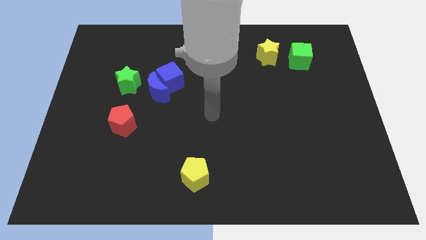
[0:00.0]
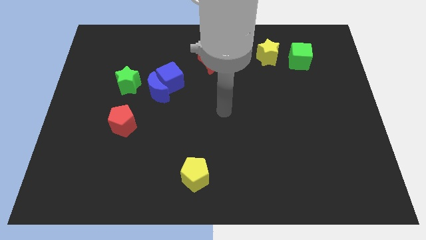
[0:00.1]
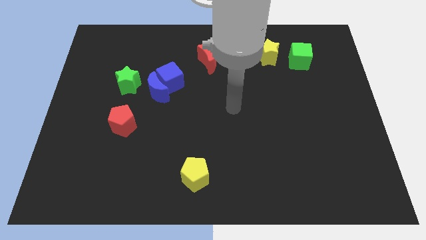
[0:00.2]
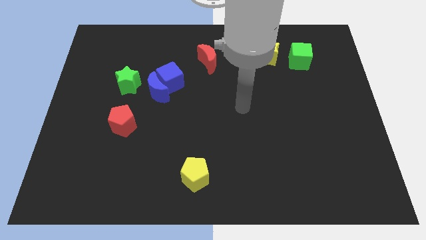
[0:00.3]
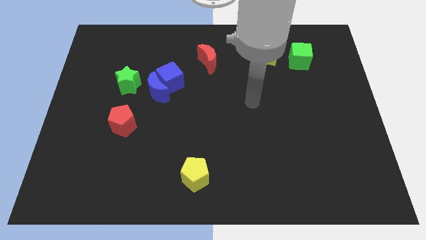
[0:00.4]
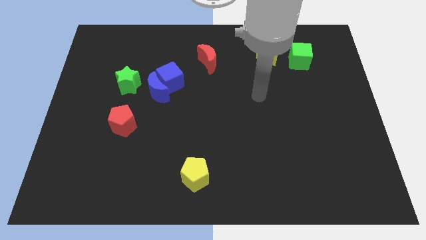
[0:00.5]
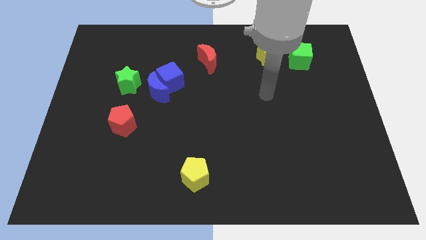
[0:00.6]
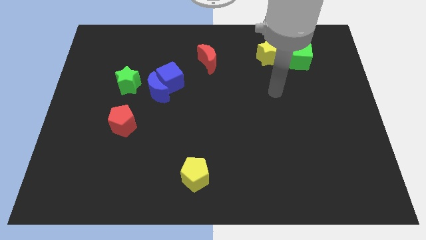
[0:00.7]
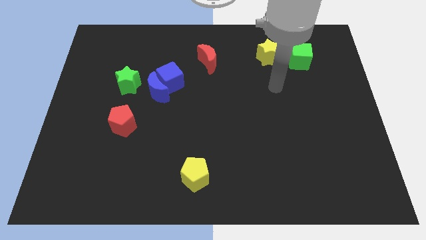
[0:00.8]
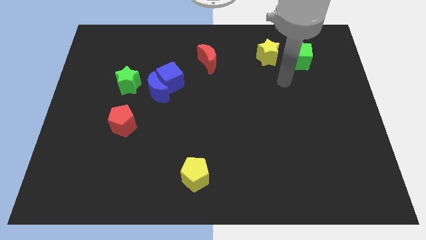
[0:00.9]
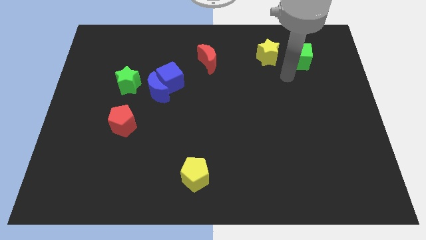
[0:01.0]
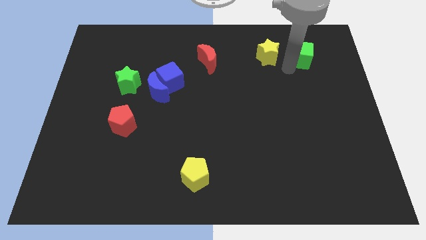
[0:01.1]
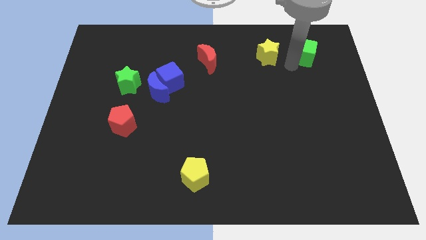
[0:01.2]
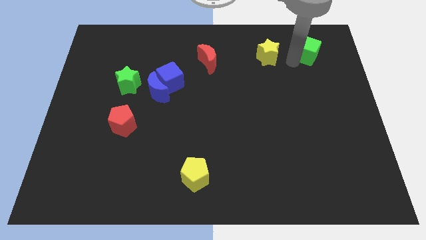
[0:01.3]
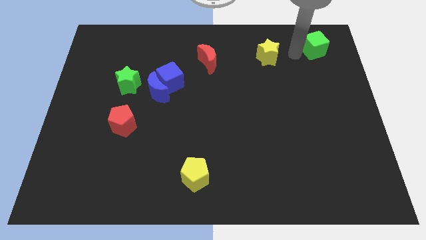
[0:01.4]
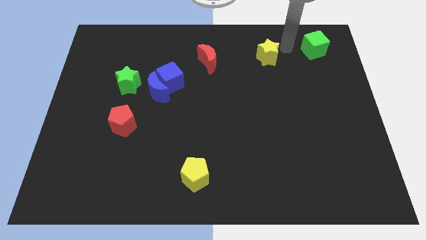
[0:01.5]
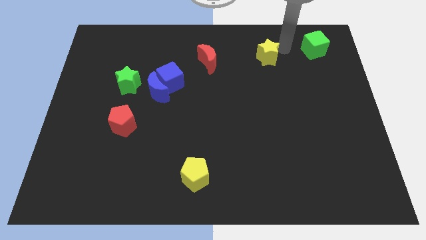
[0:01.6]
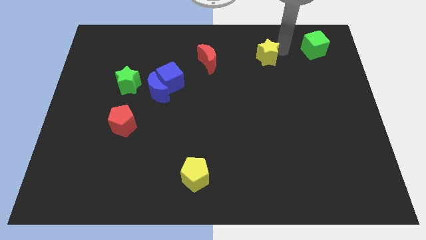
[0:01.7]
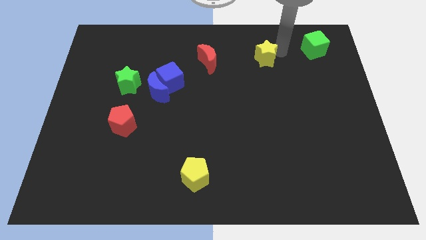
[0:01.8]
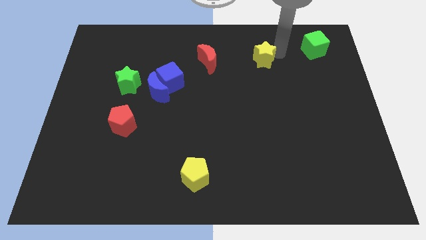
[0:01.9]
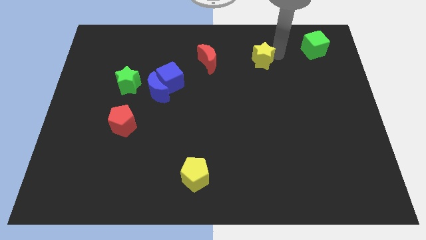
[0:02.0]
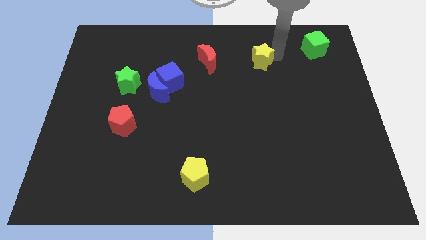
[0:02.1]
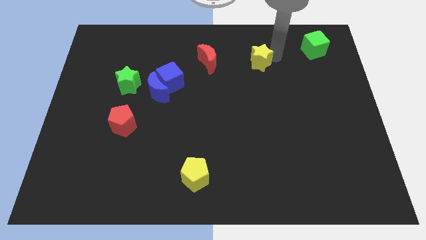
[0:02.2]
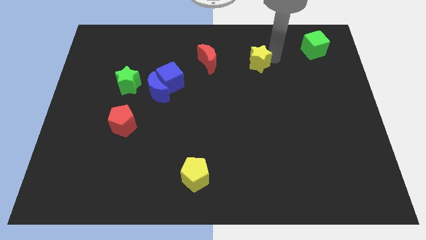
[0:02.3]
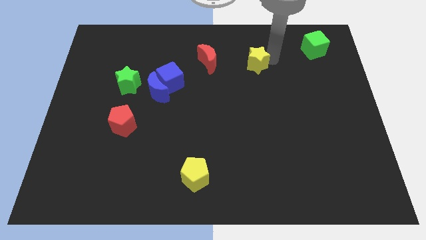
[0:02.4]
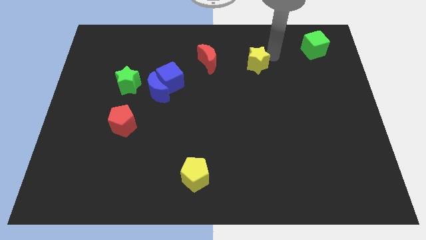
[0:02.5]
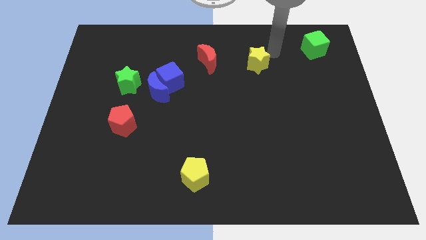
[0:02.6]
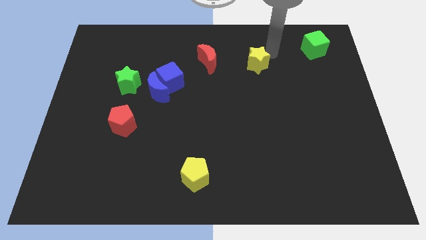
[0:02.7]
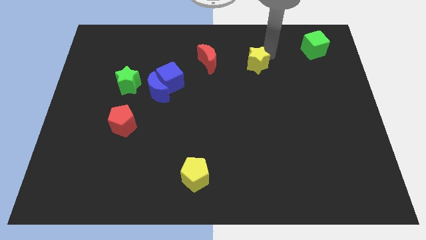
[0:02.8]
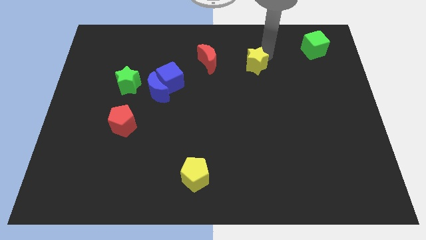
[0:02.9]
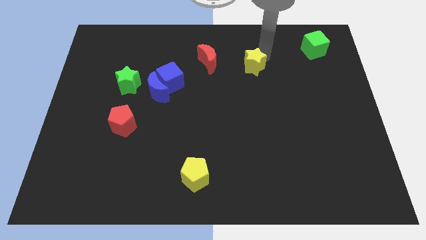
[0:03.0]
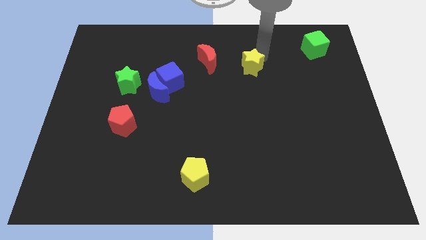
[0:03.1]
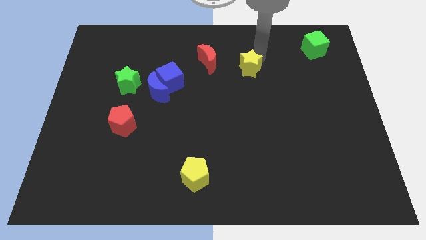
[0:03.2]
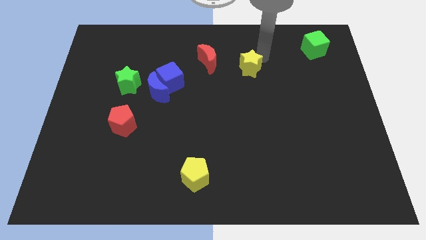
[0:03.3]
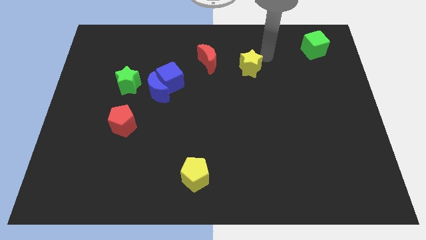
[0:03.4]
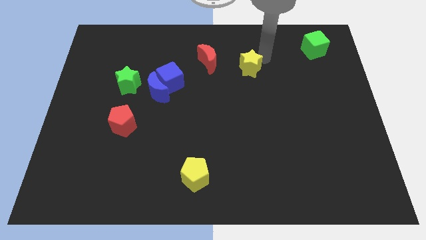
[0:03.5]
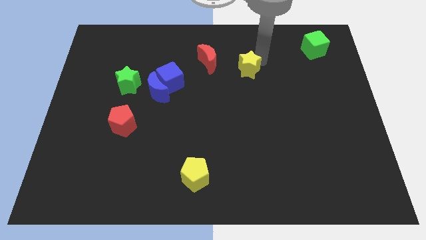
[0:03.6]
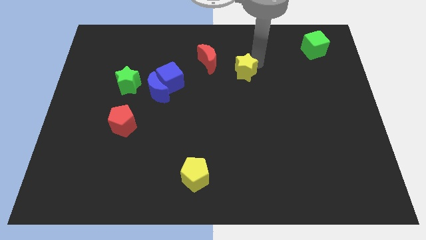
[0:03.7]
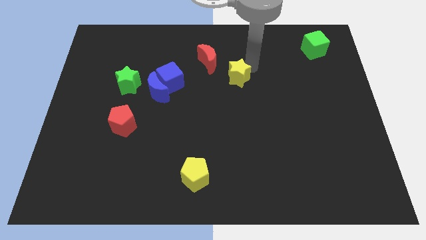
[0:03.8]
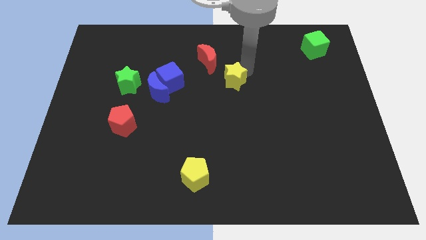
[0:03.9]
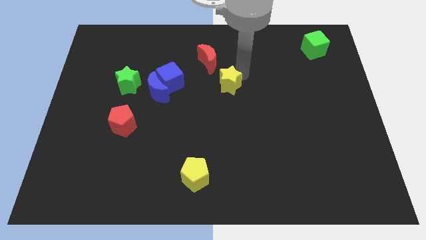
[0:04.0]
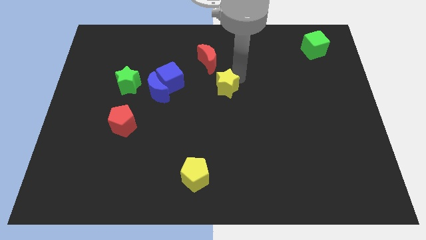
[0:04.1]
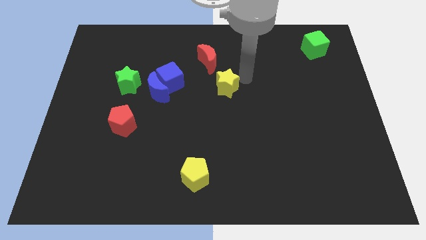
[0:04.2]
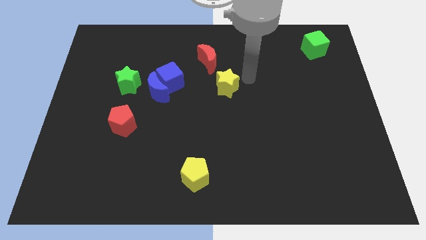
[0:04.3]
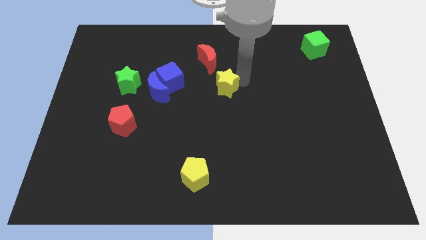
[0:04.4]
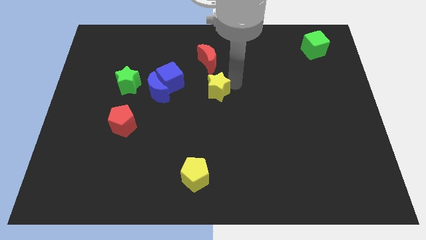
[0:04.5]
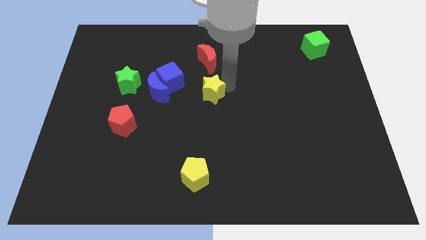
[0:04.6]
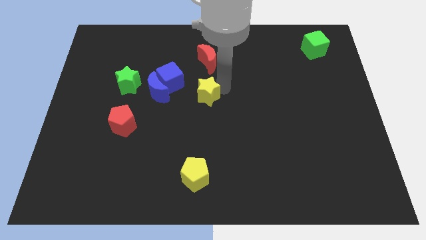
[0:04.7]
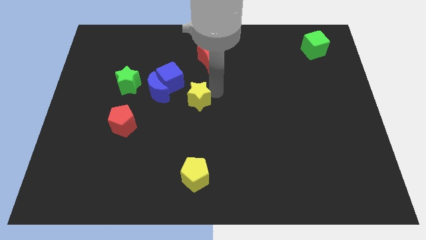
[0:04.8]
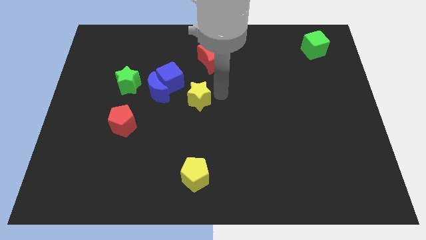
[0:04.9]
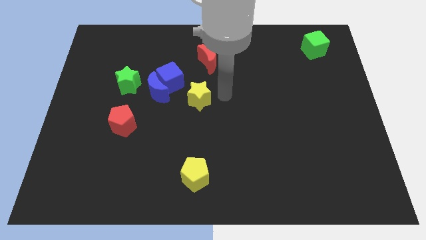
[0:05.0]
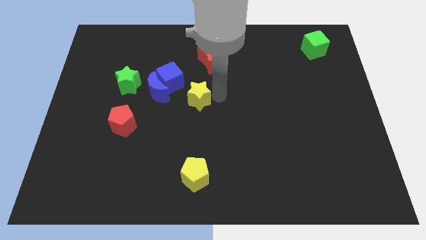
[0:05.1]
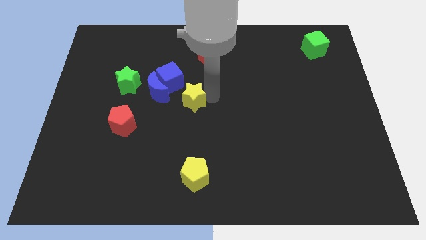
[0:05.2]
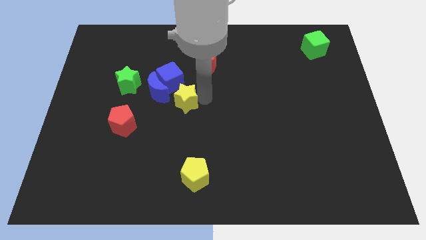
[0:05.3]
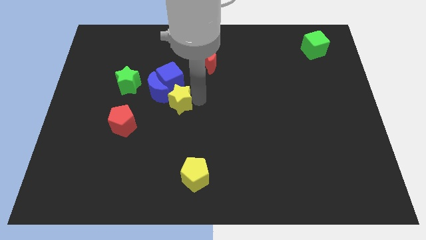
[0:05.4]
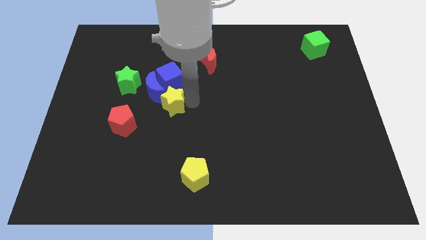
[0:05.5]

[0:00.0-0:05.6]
put the yellow star close to the blue moon

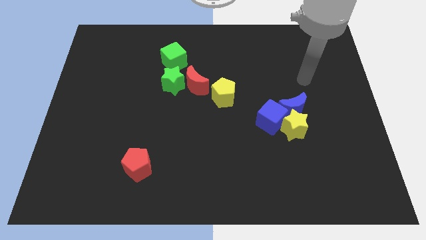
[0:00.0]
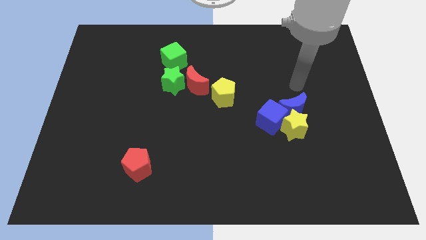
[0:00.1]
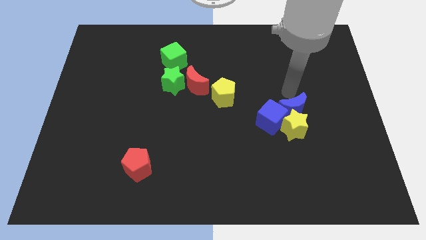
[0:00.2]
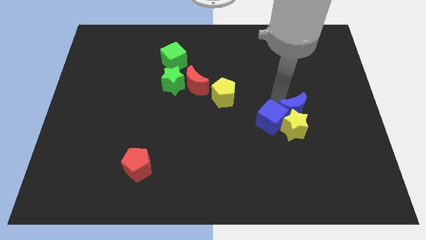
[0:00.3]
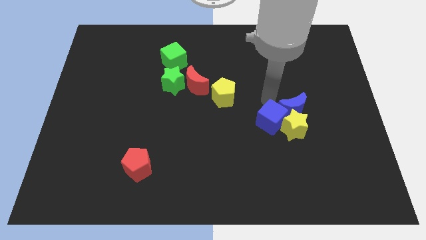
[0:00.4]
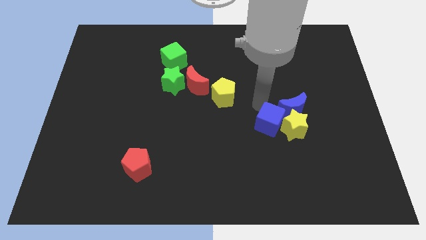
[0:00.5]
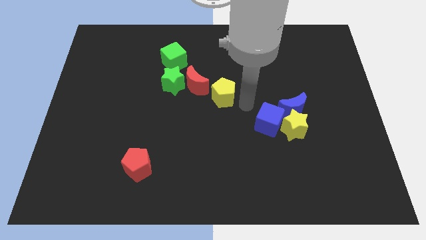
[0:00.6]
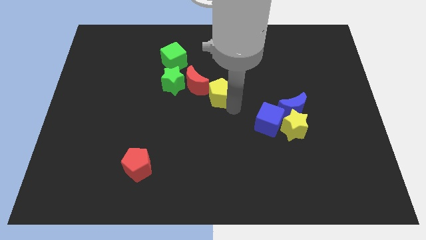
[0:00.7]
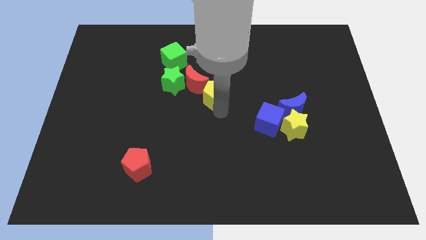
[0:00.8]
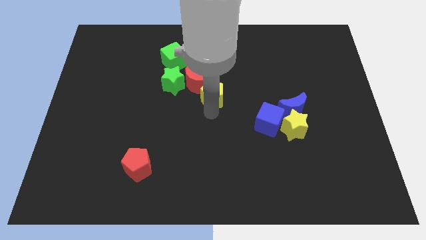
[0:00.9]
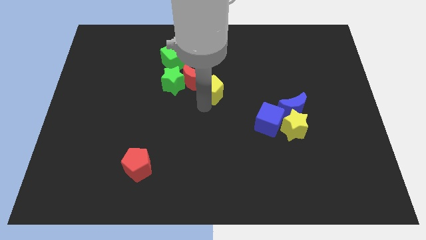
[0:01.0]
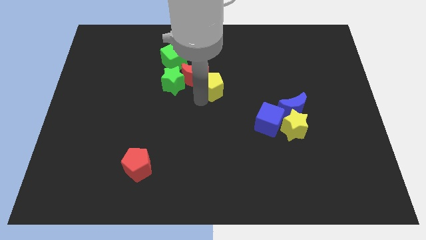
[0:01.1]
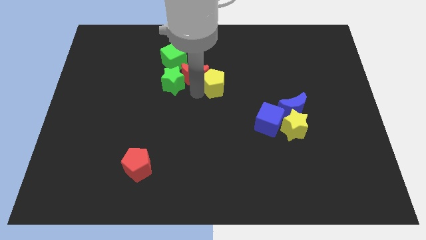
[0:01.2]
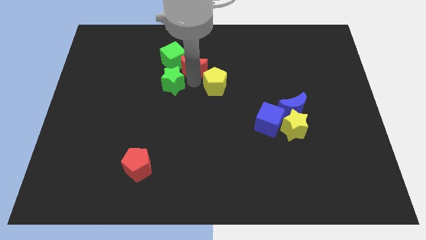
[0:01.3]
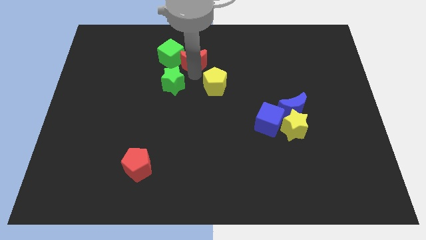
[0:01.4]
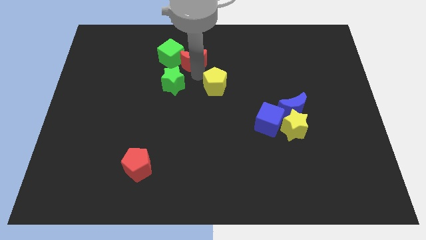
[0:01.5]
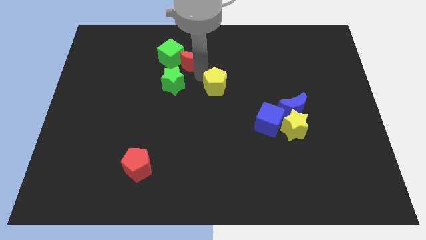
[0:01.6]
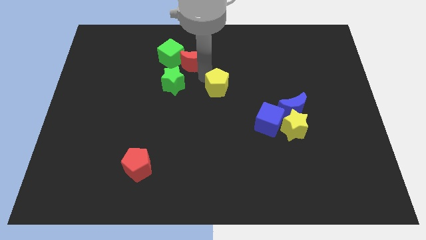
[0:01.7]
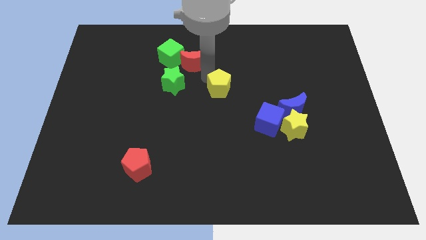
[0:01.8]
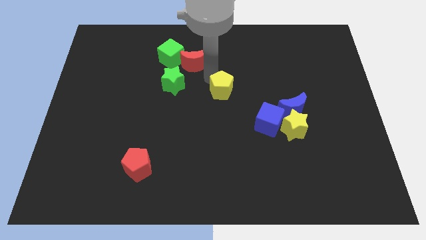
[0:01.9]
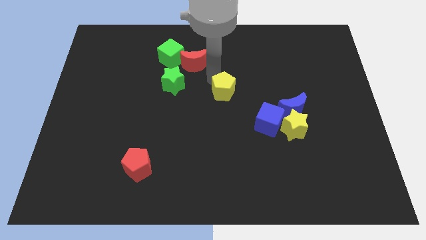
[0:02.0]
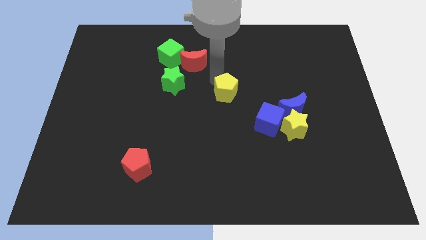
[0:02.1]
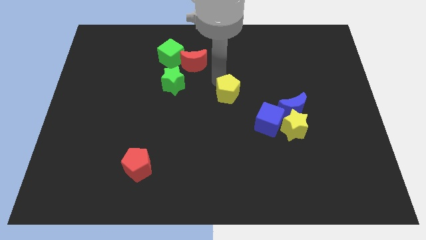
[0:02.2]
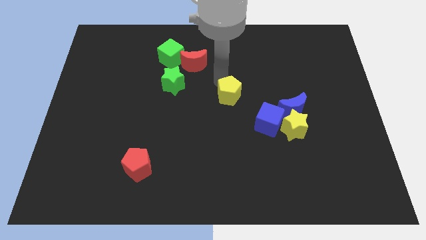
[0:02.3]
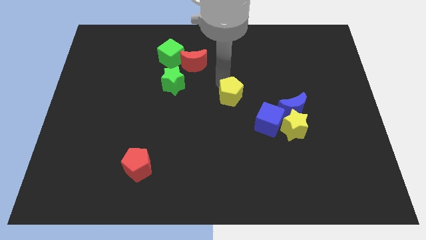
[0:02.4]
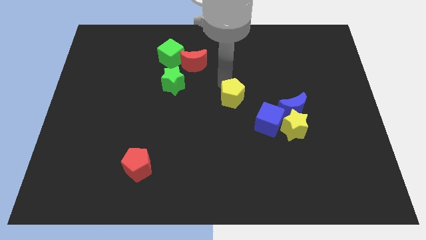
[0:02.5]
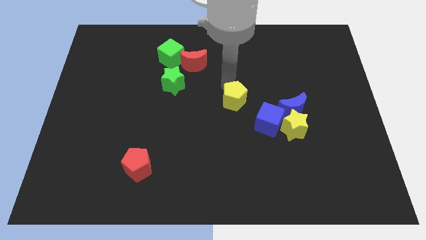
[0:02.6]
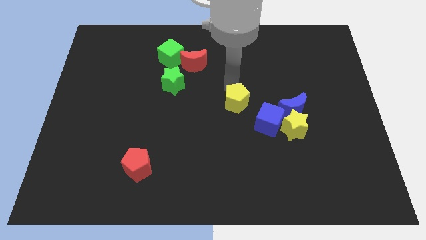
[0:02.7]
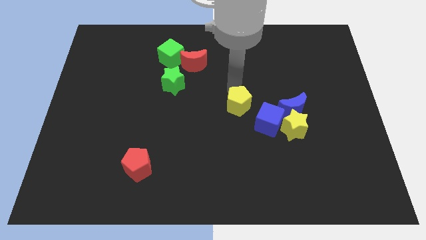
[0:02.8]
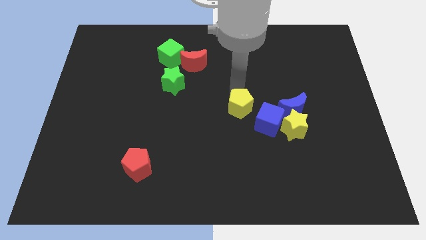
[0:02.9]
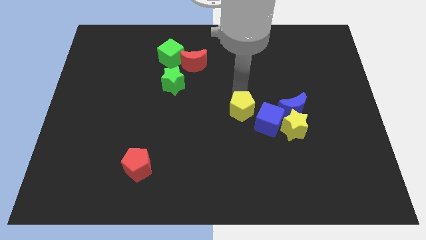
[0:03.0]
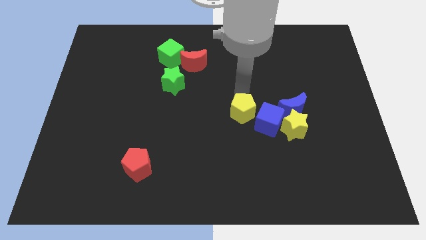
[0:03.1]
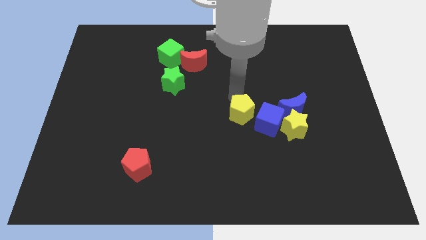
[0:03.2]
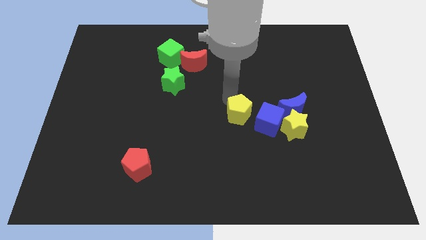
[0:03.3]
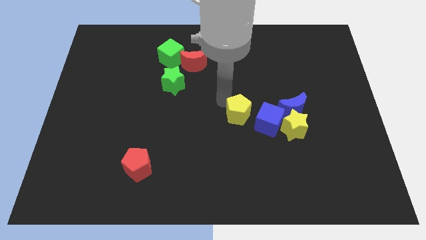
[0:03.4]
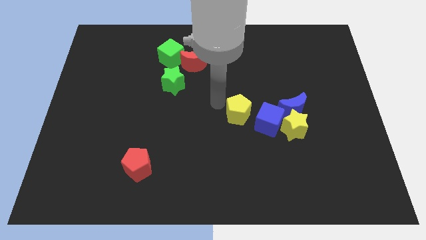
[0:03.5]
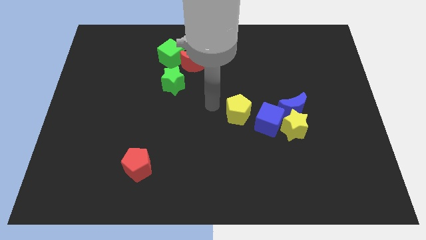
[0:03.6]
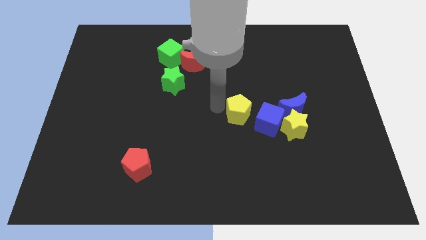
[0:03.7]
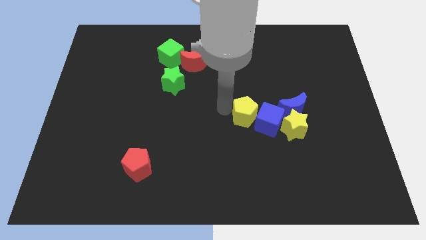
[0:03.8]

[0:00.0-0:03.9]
push the yellow pentagon next to the blue cube
